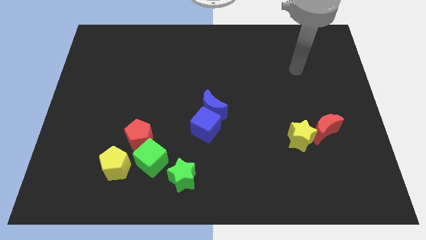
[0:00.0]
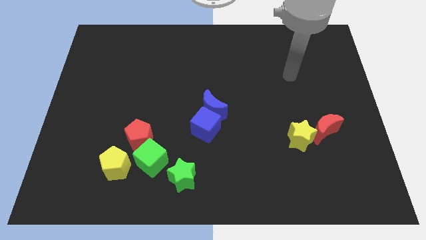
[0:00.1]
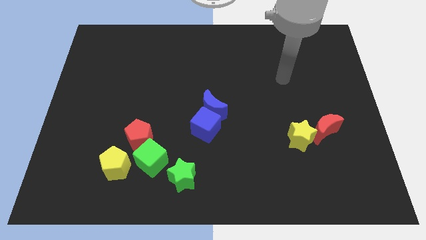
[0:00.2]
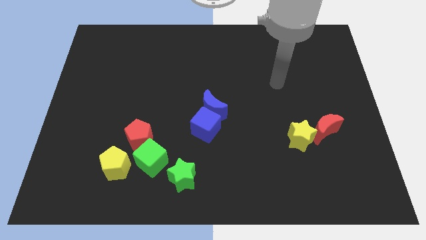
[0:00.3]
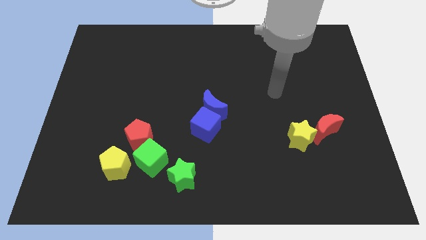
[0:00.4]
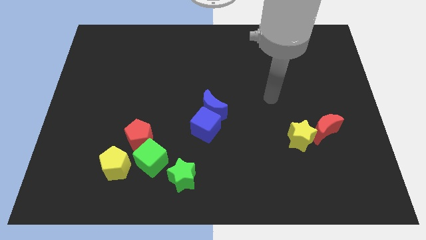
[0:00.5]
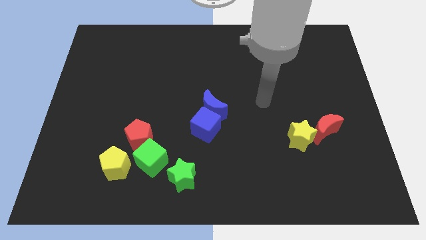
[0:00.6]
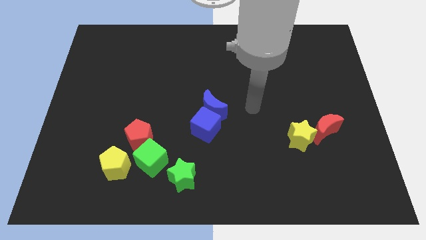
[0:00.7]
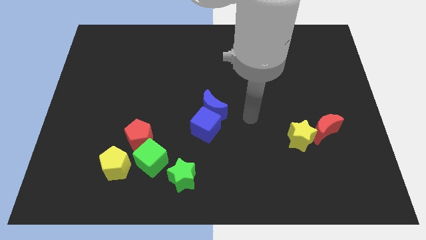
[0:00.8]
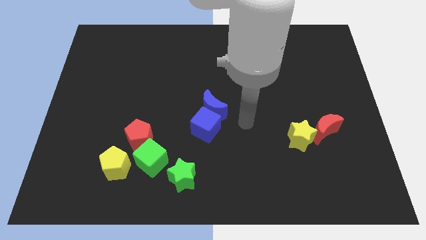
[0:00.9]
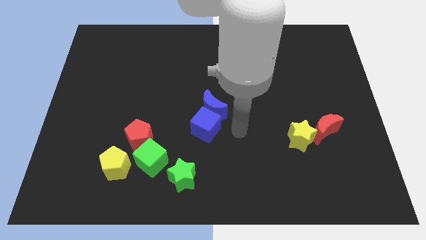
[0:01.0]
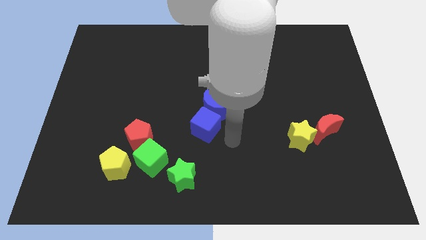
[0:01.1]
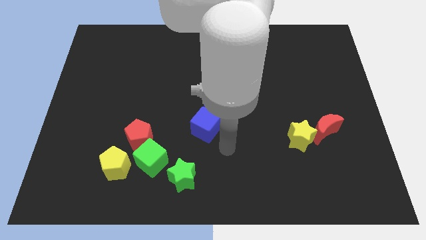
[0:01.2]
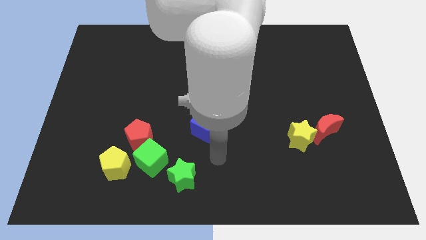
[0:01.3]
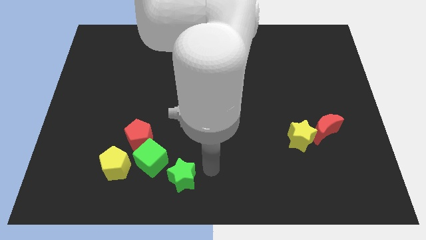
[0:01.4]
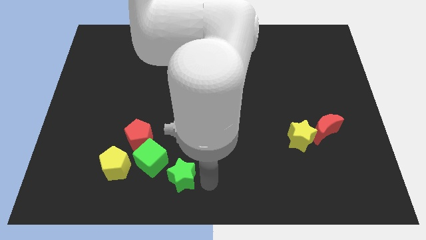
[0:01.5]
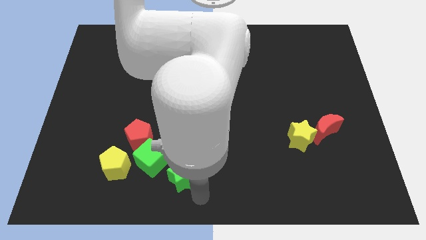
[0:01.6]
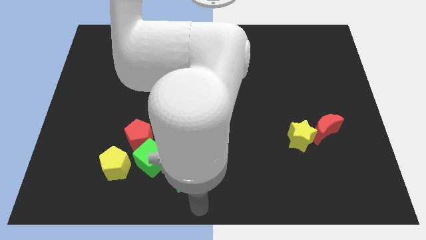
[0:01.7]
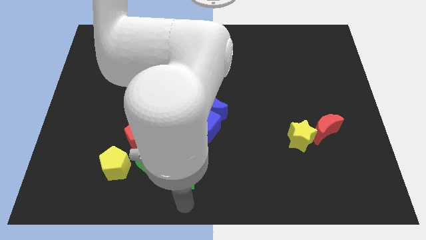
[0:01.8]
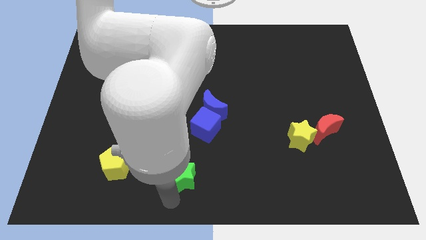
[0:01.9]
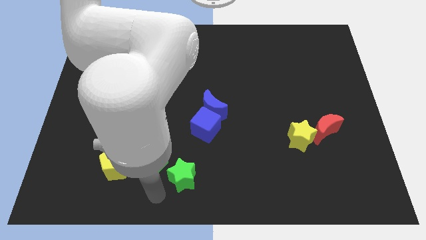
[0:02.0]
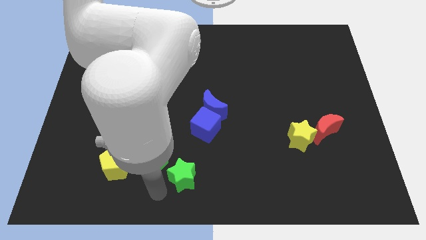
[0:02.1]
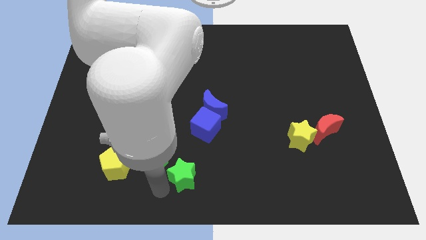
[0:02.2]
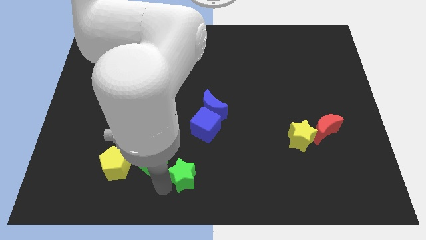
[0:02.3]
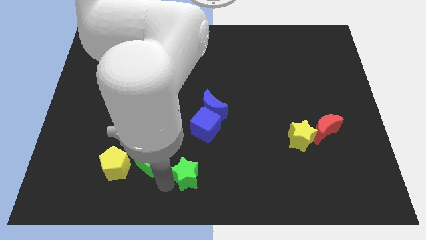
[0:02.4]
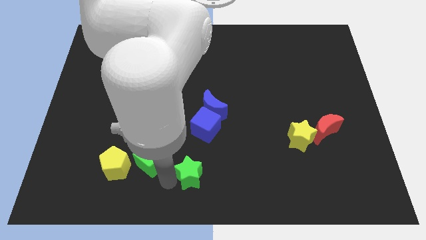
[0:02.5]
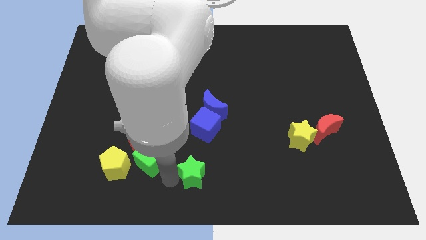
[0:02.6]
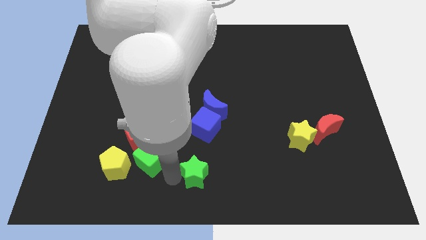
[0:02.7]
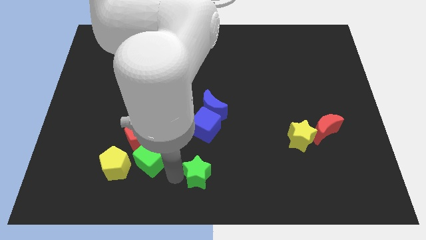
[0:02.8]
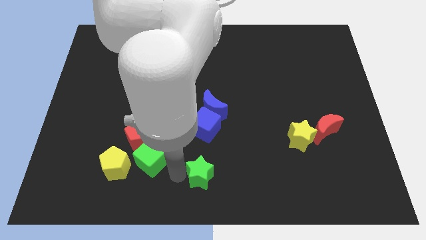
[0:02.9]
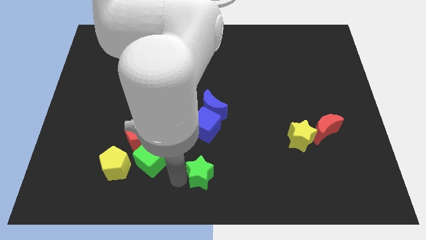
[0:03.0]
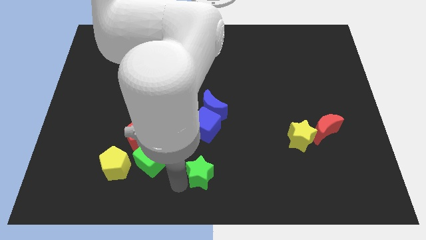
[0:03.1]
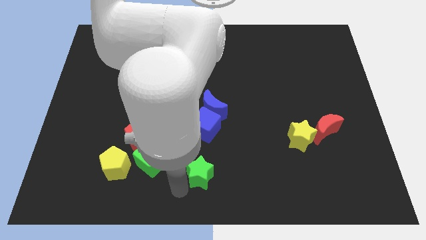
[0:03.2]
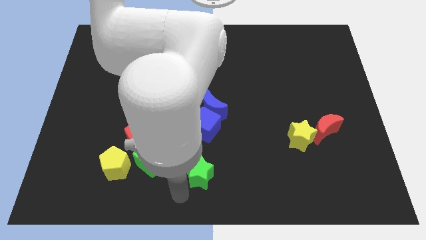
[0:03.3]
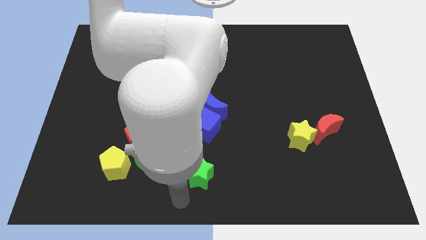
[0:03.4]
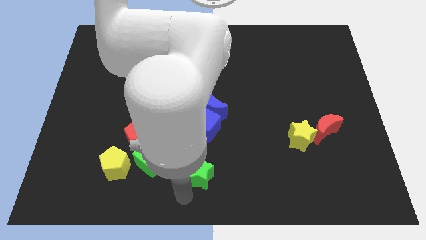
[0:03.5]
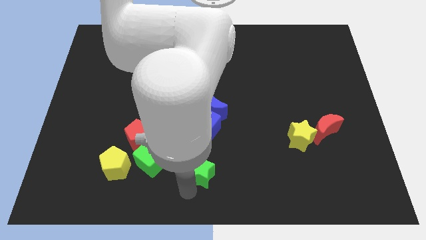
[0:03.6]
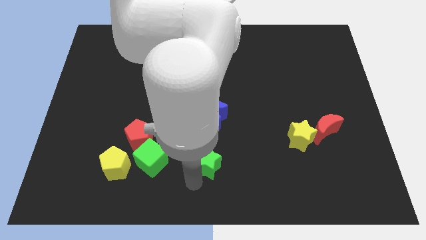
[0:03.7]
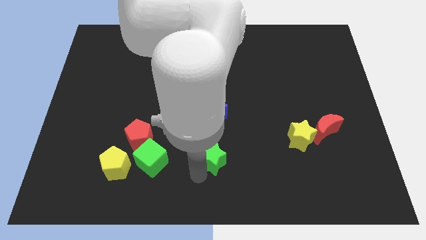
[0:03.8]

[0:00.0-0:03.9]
slightly slide the green star upwards and then right

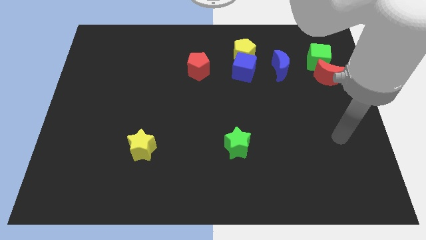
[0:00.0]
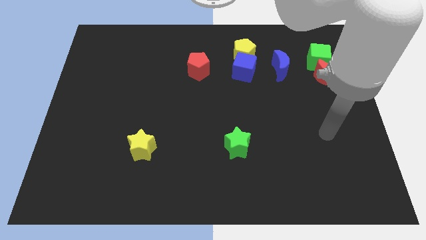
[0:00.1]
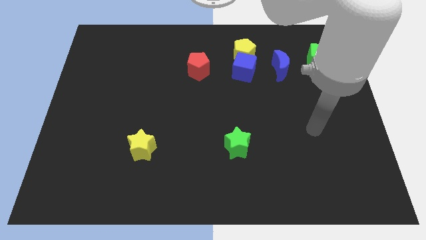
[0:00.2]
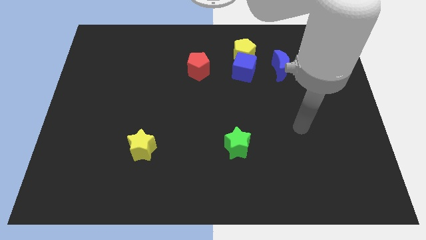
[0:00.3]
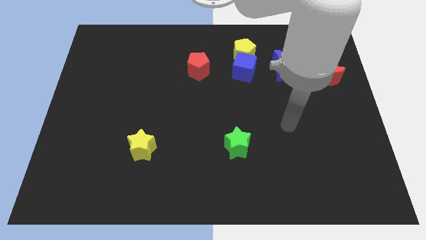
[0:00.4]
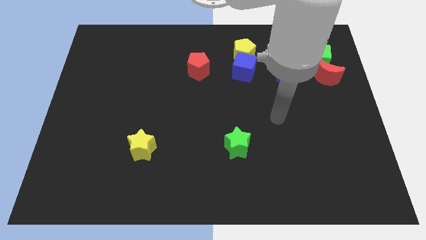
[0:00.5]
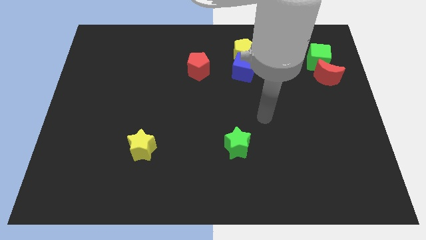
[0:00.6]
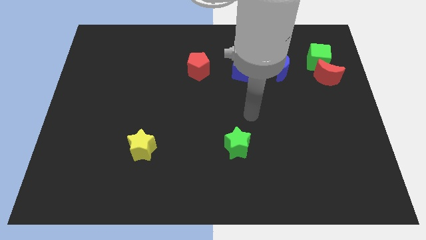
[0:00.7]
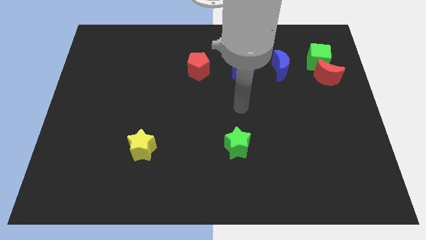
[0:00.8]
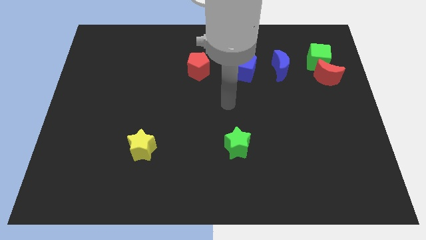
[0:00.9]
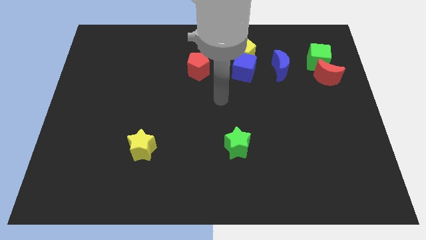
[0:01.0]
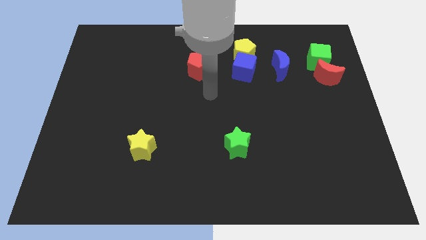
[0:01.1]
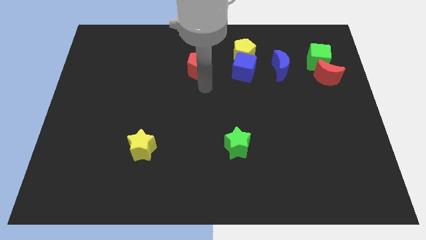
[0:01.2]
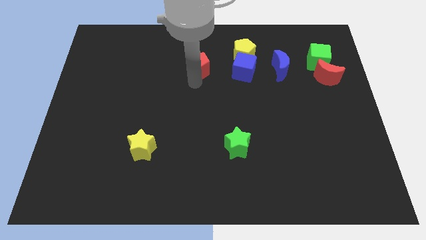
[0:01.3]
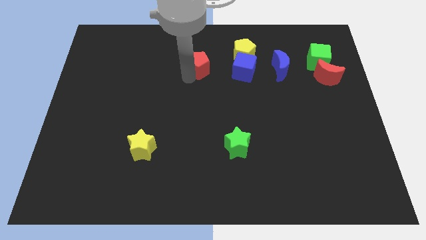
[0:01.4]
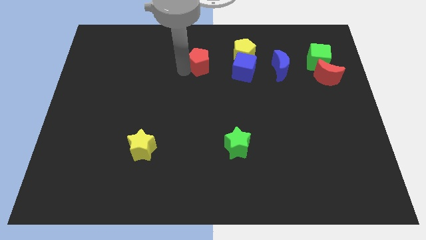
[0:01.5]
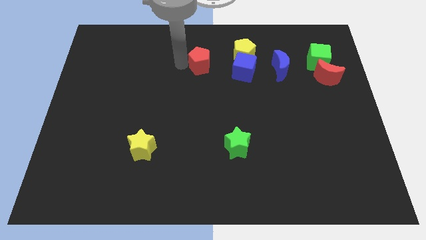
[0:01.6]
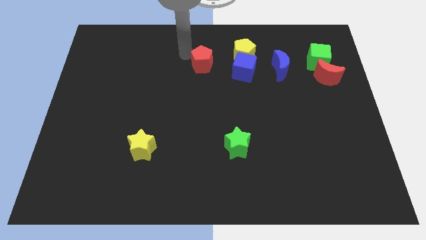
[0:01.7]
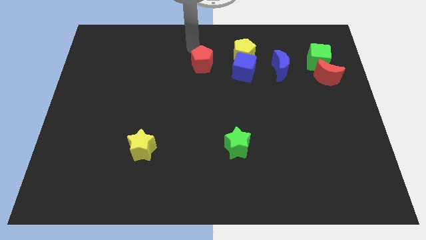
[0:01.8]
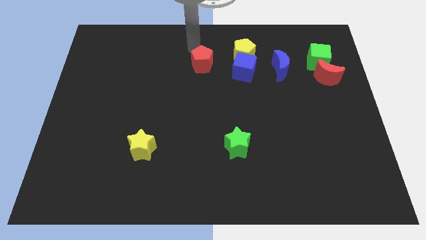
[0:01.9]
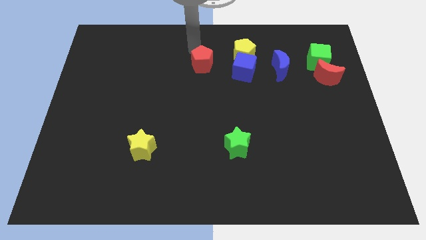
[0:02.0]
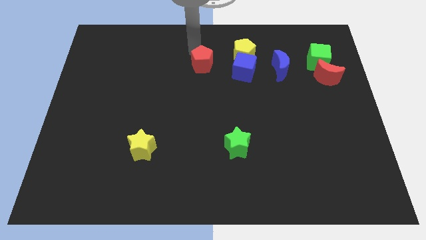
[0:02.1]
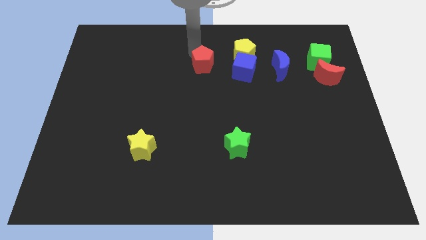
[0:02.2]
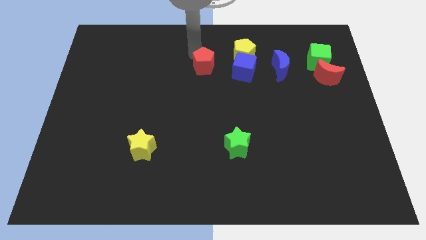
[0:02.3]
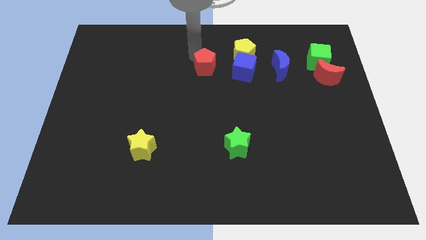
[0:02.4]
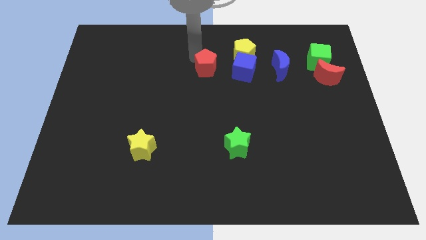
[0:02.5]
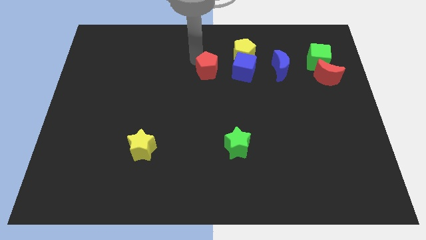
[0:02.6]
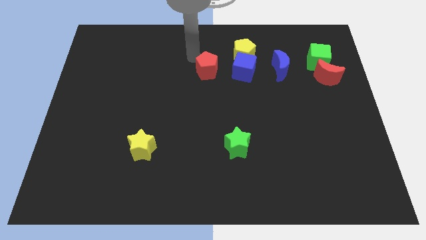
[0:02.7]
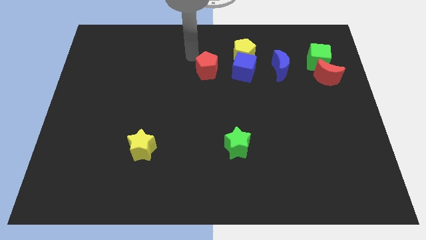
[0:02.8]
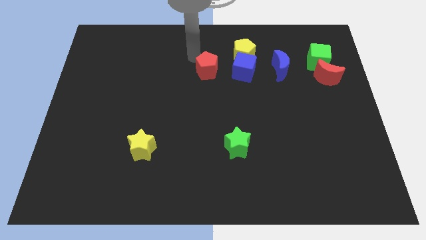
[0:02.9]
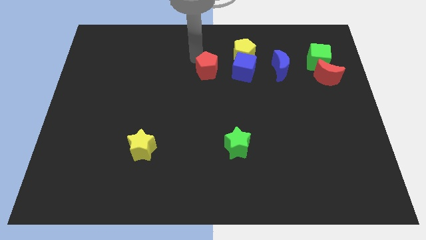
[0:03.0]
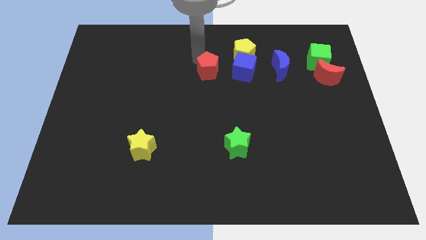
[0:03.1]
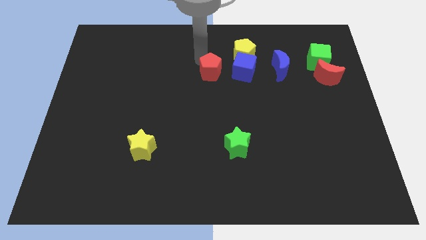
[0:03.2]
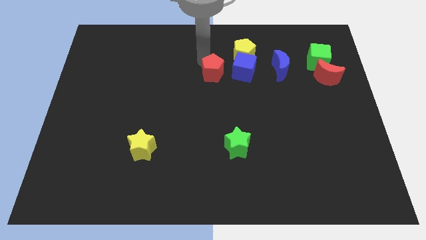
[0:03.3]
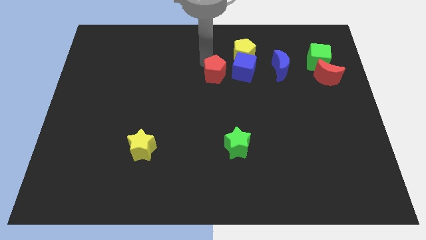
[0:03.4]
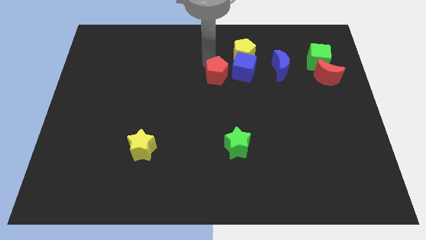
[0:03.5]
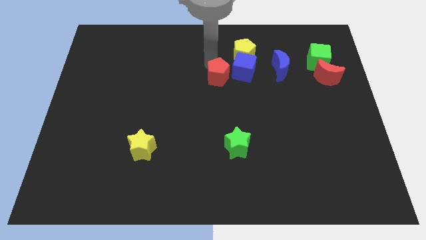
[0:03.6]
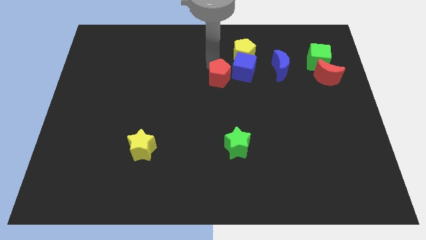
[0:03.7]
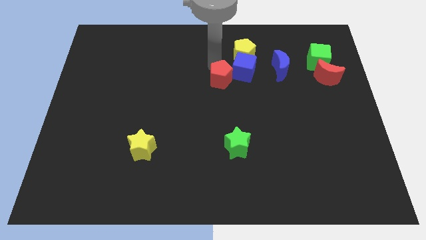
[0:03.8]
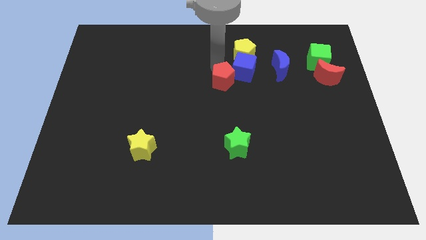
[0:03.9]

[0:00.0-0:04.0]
slide the red pentagon diagonally downwards and right somewhat
